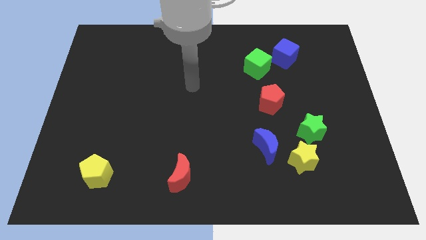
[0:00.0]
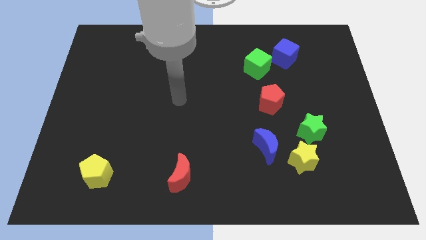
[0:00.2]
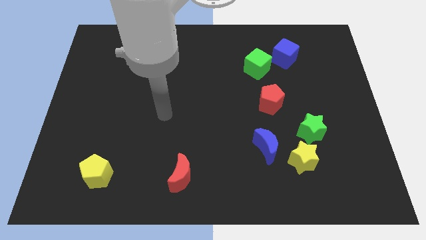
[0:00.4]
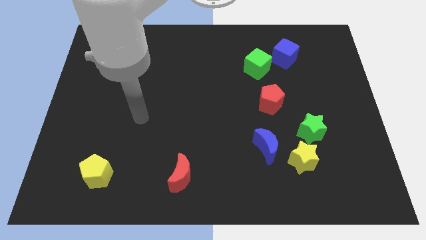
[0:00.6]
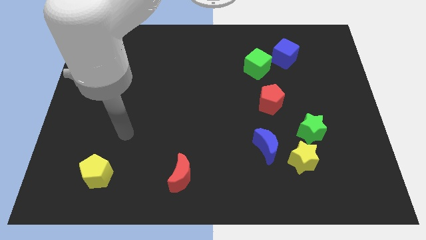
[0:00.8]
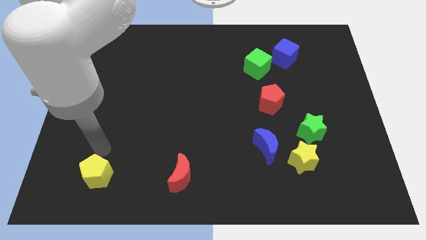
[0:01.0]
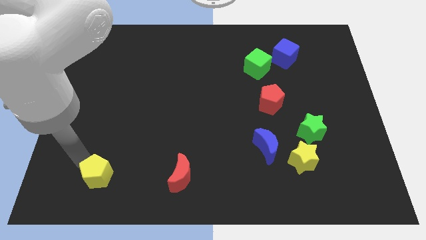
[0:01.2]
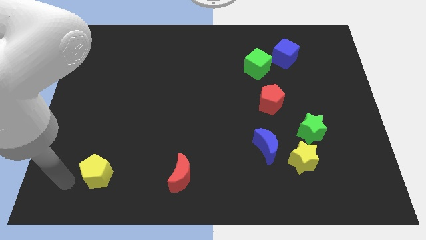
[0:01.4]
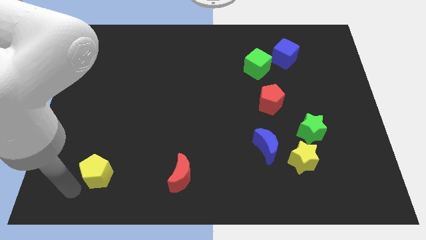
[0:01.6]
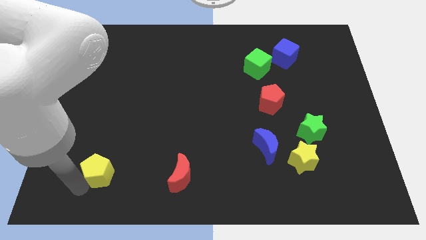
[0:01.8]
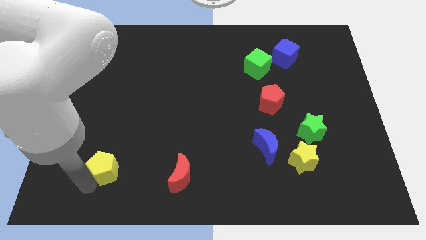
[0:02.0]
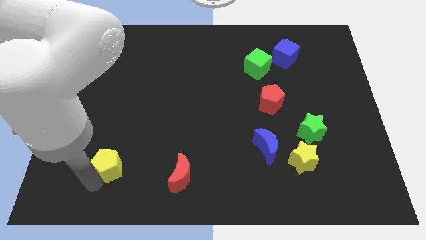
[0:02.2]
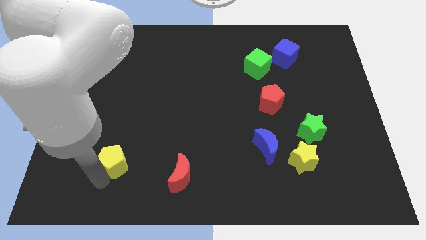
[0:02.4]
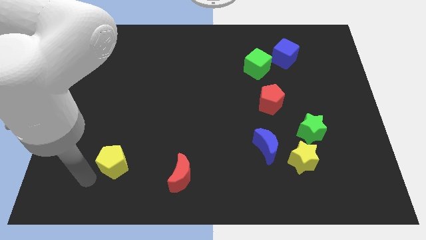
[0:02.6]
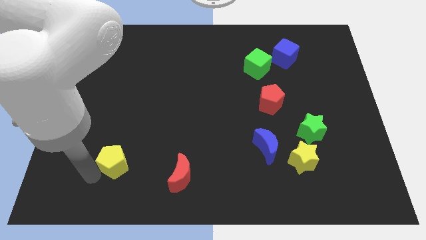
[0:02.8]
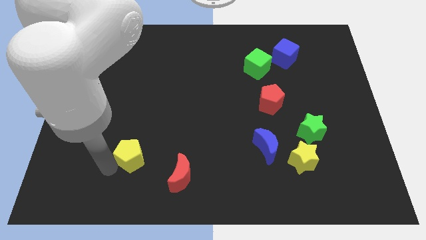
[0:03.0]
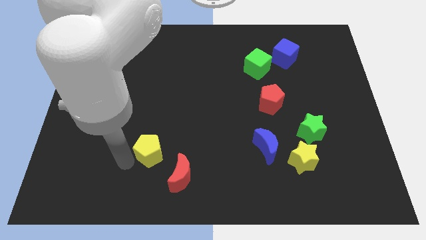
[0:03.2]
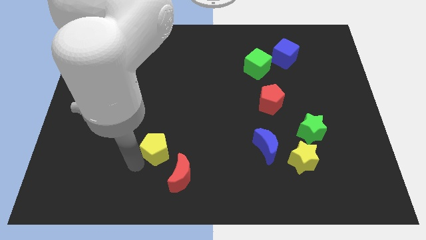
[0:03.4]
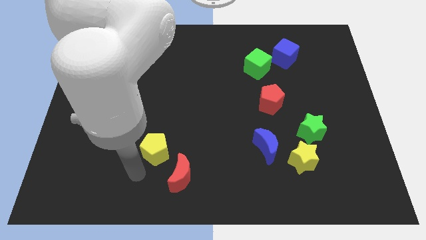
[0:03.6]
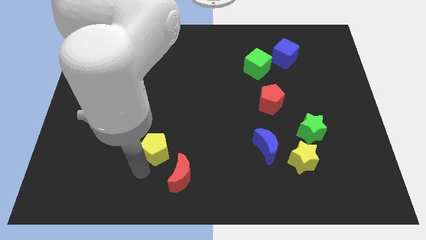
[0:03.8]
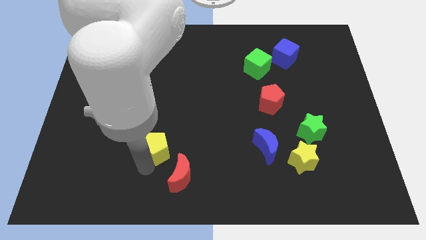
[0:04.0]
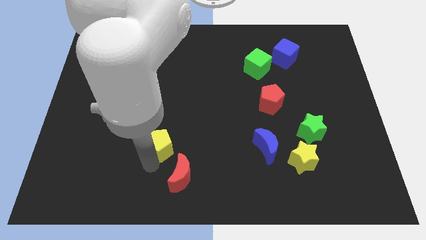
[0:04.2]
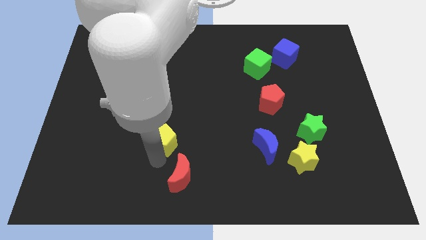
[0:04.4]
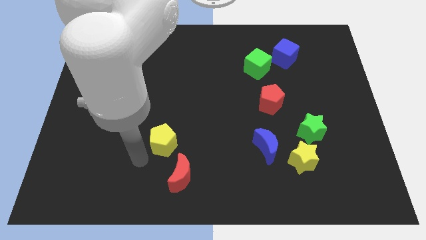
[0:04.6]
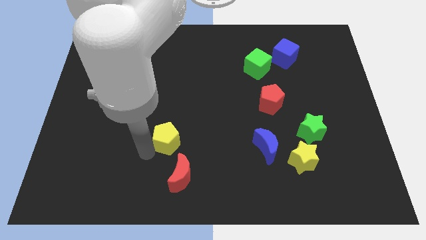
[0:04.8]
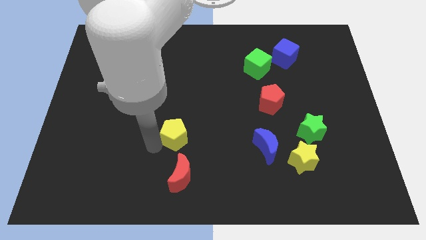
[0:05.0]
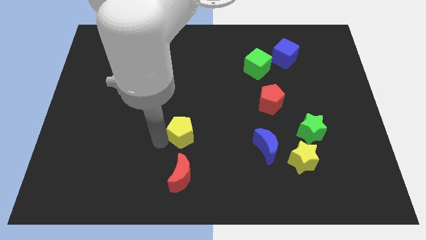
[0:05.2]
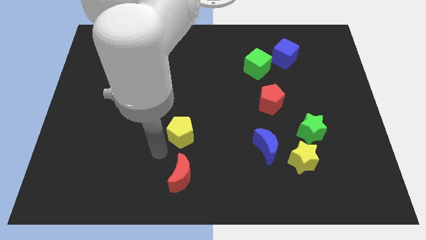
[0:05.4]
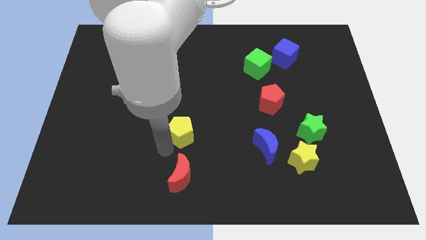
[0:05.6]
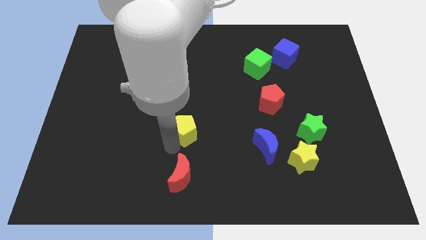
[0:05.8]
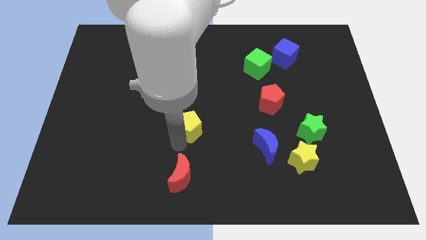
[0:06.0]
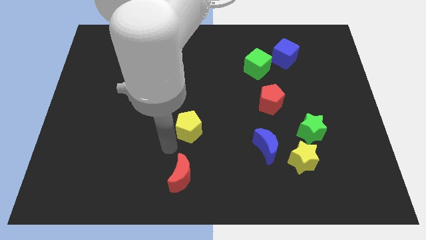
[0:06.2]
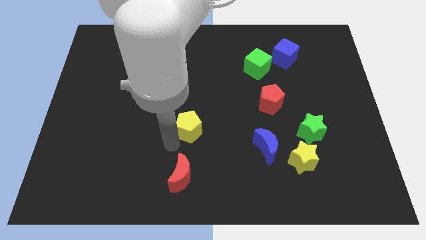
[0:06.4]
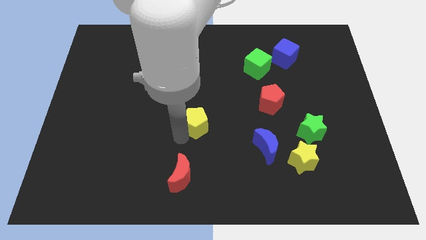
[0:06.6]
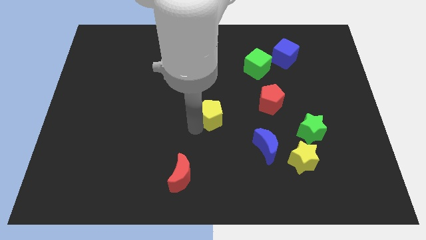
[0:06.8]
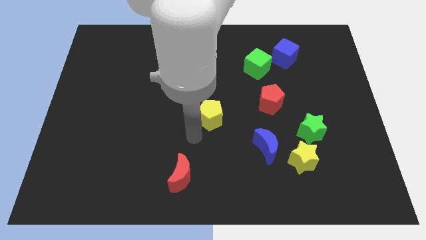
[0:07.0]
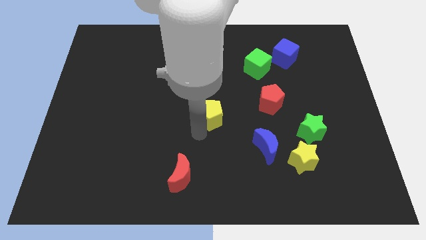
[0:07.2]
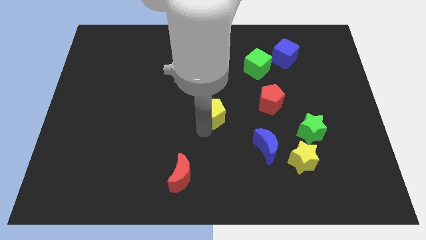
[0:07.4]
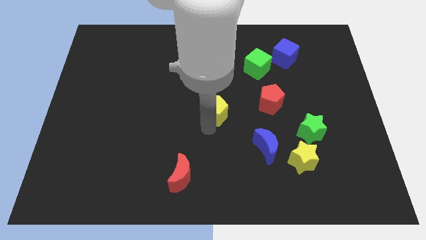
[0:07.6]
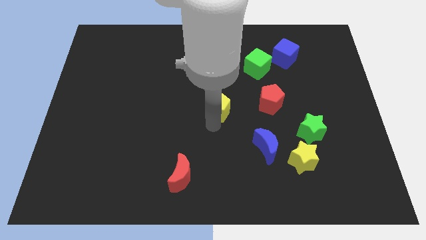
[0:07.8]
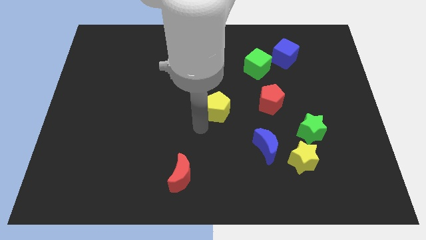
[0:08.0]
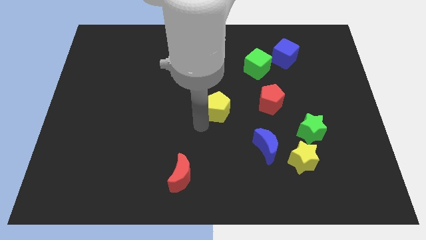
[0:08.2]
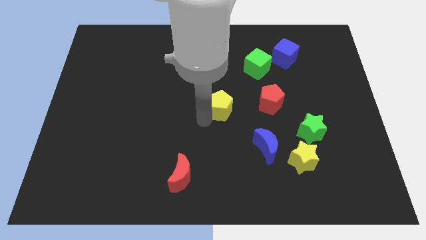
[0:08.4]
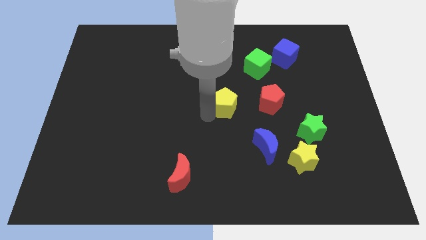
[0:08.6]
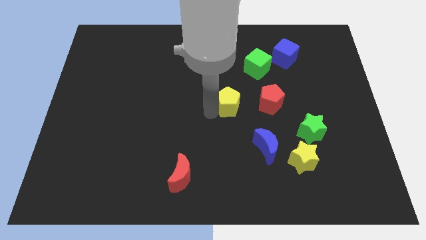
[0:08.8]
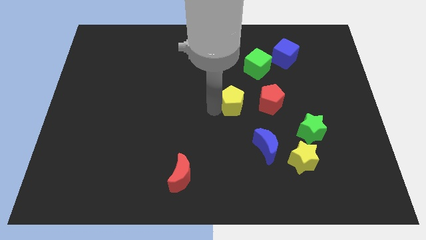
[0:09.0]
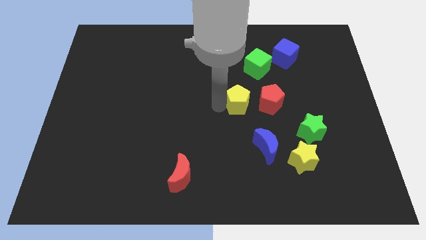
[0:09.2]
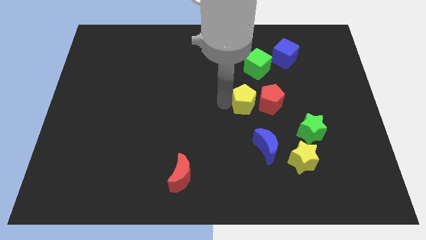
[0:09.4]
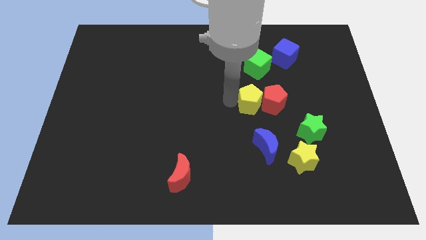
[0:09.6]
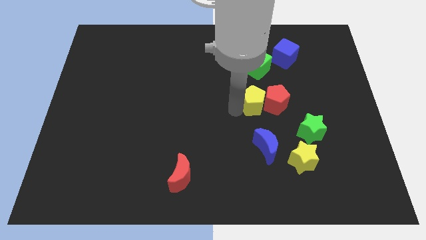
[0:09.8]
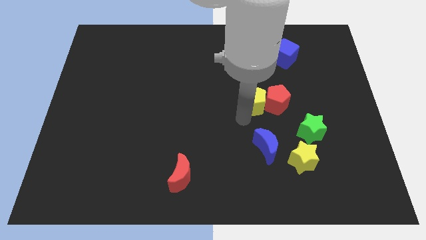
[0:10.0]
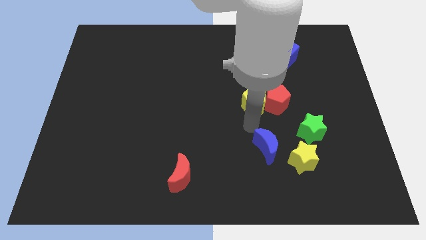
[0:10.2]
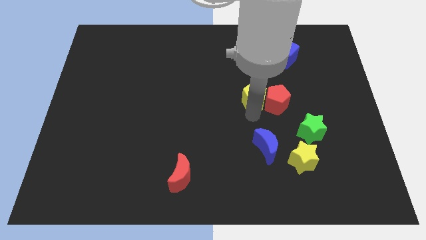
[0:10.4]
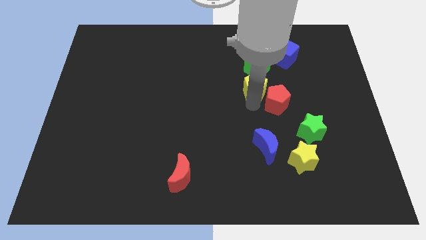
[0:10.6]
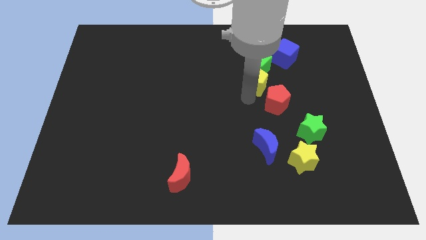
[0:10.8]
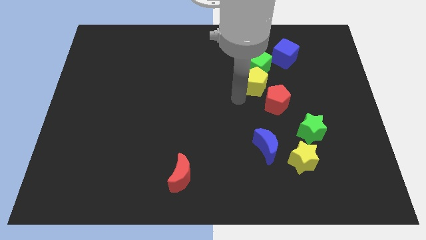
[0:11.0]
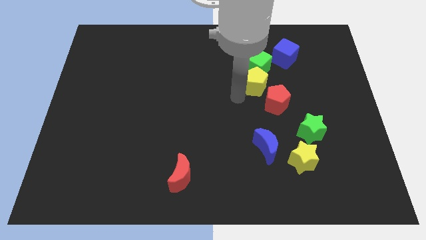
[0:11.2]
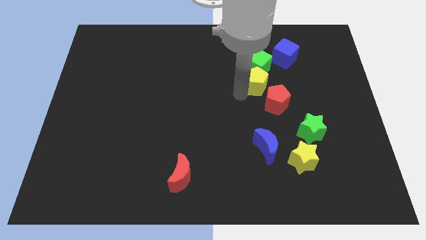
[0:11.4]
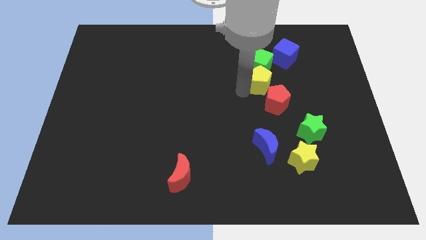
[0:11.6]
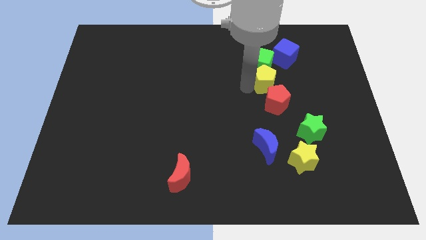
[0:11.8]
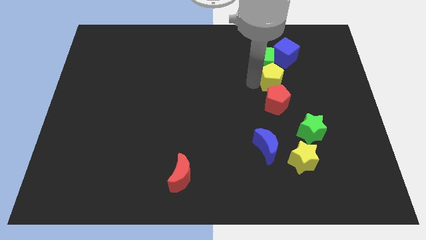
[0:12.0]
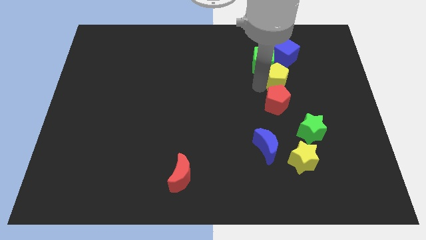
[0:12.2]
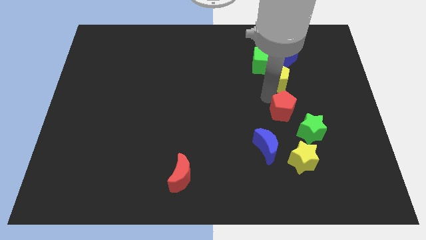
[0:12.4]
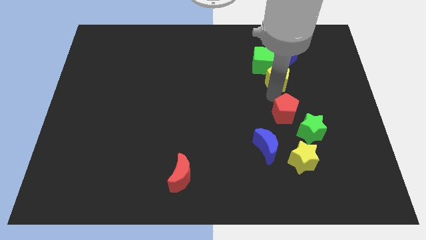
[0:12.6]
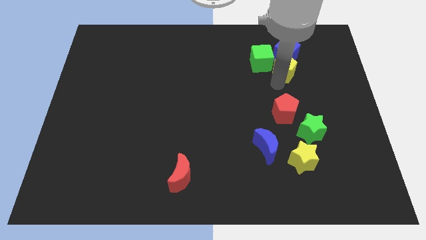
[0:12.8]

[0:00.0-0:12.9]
move the yellow pentagon towards the blue cube

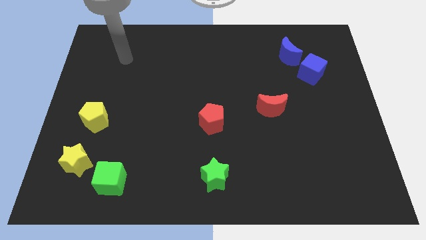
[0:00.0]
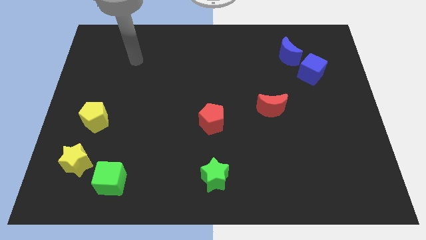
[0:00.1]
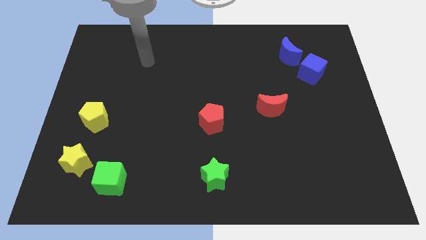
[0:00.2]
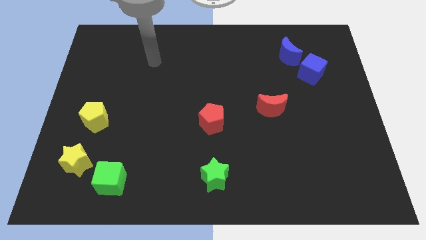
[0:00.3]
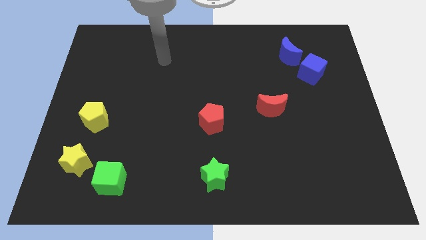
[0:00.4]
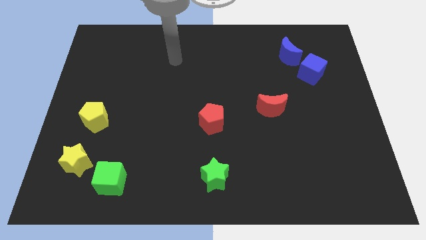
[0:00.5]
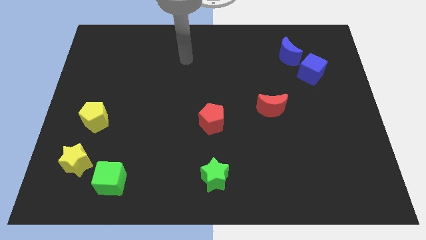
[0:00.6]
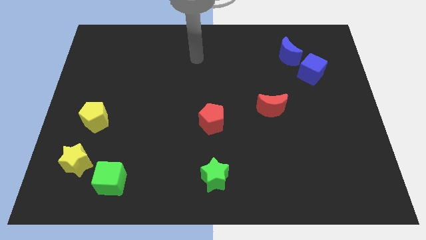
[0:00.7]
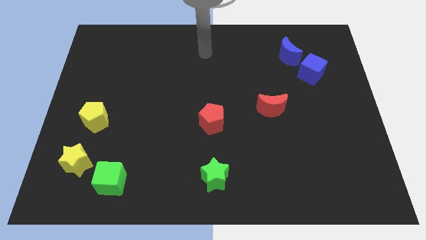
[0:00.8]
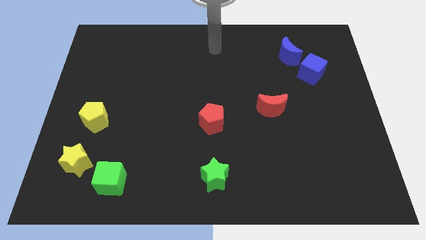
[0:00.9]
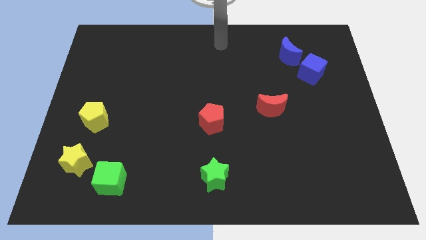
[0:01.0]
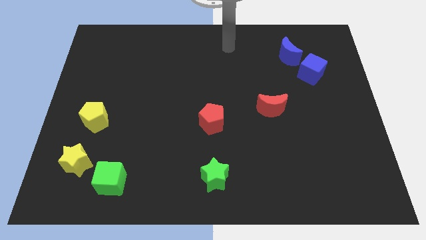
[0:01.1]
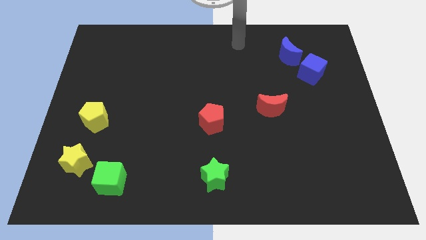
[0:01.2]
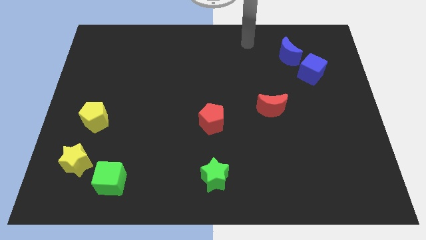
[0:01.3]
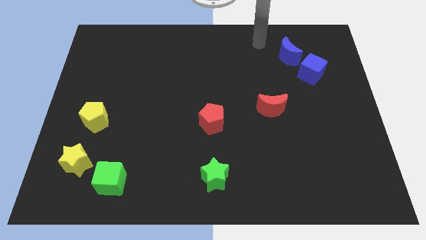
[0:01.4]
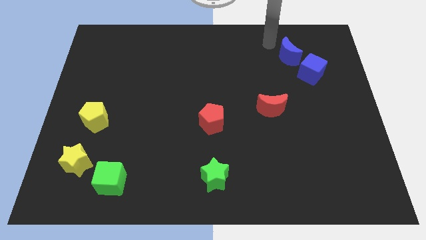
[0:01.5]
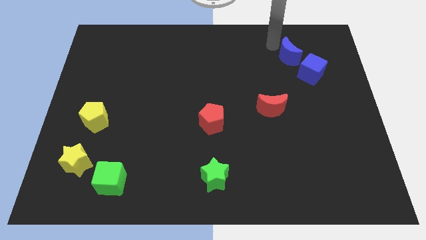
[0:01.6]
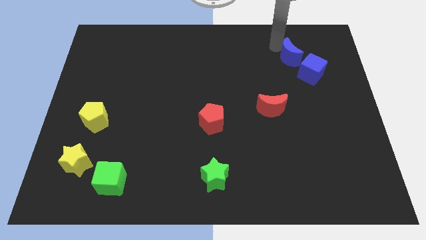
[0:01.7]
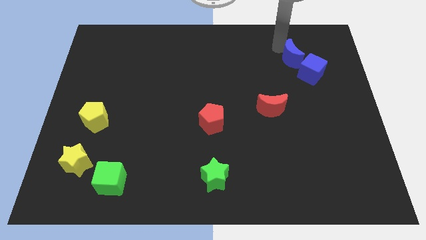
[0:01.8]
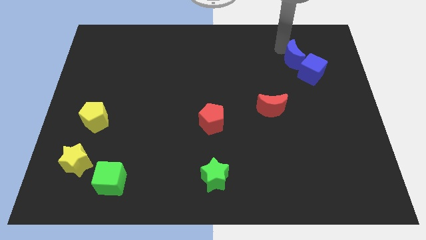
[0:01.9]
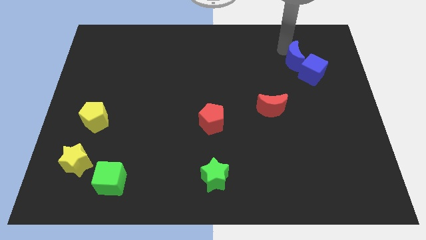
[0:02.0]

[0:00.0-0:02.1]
move the blue moon towards the blue cube
